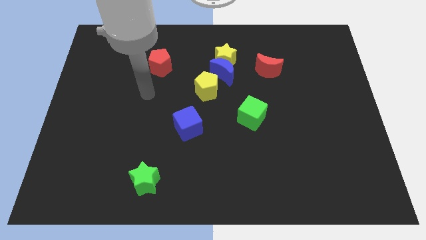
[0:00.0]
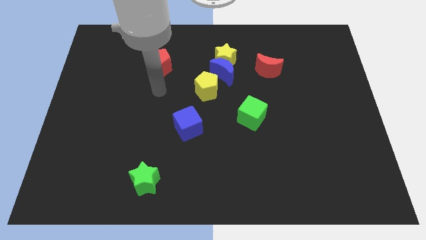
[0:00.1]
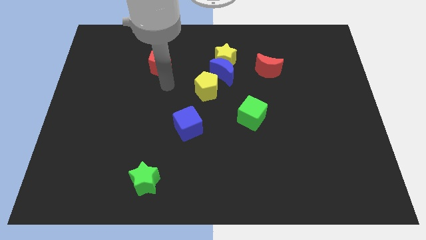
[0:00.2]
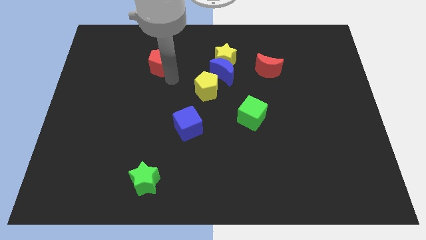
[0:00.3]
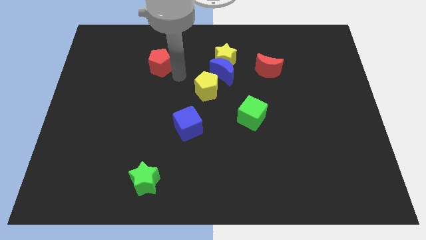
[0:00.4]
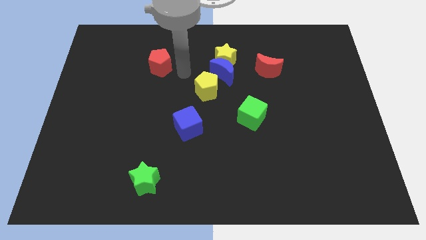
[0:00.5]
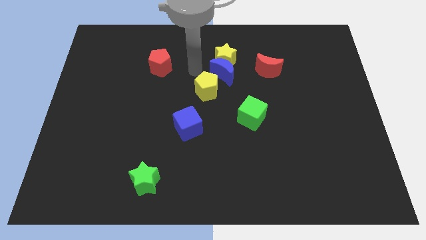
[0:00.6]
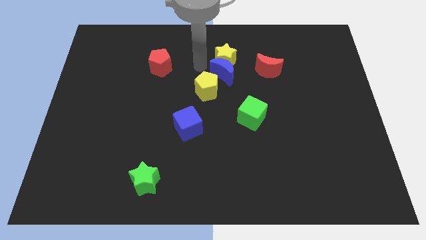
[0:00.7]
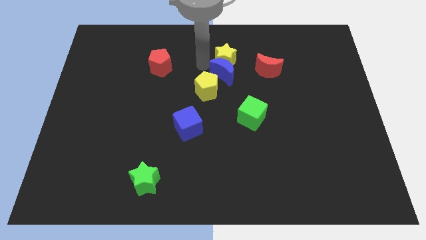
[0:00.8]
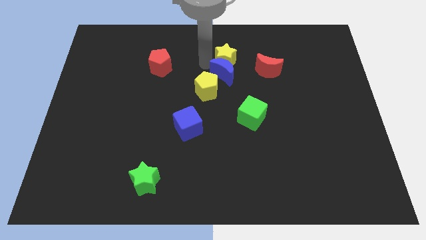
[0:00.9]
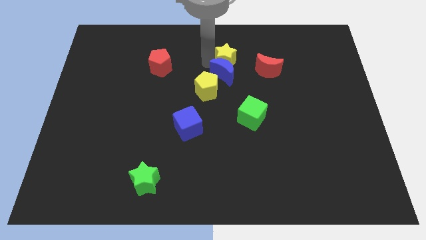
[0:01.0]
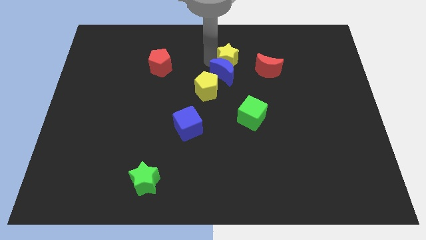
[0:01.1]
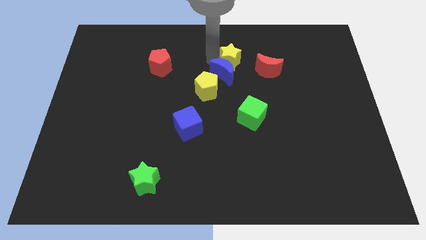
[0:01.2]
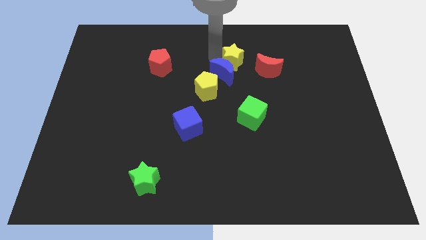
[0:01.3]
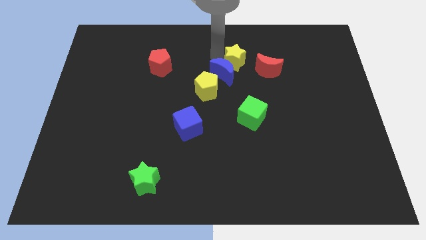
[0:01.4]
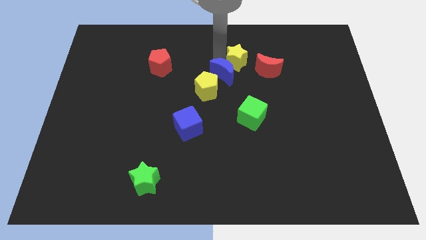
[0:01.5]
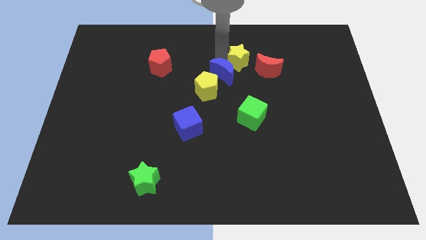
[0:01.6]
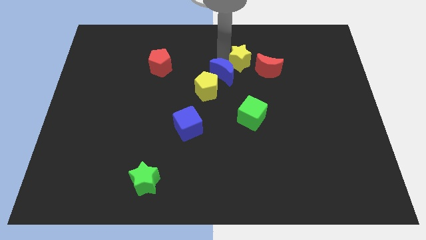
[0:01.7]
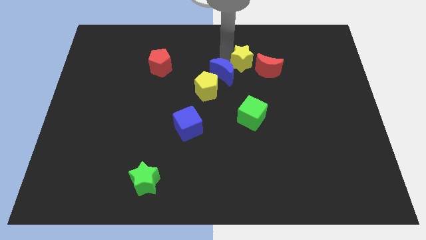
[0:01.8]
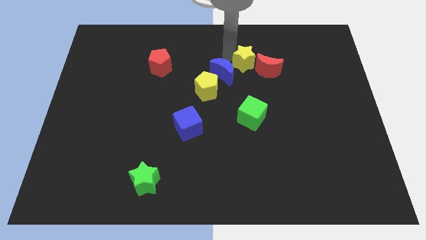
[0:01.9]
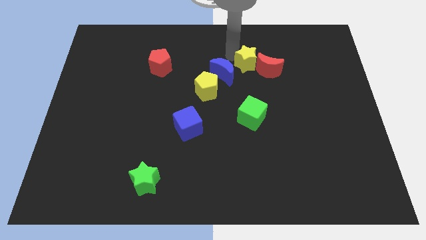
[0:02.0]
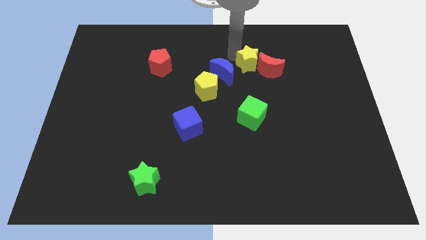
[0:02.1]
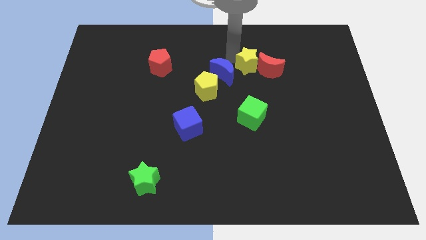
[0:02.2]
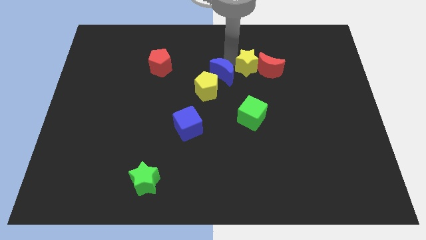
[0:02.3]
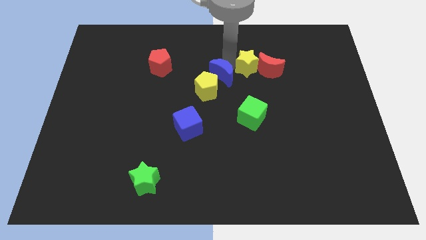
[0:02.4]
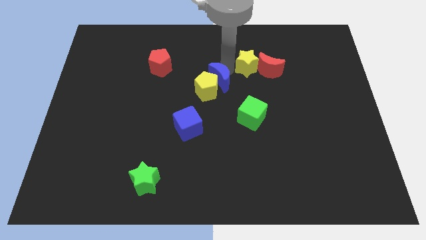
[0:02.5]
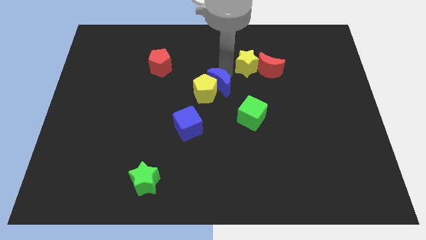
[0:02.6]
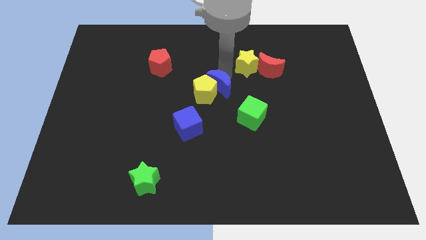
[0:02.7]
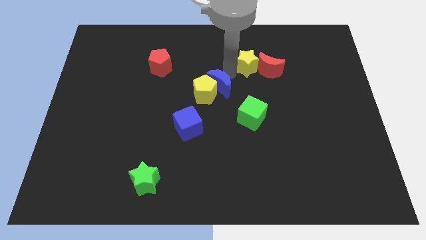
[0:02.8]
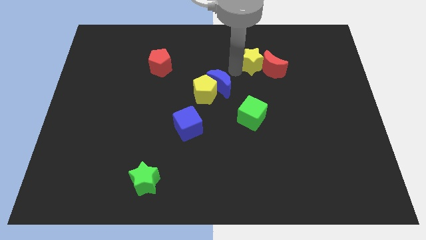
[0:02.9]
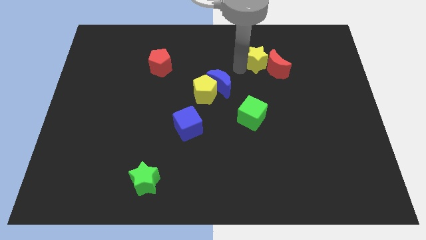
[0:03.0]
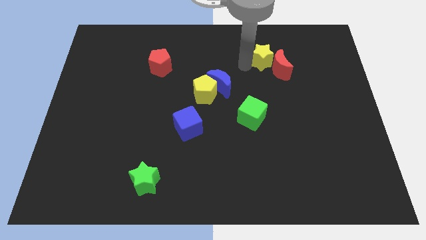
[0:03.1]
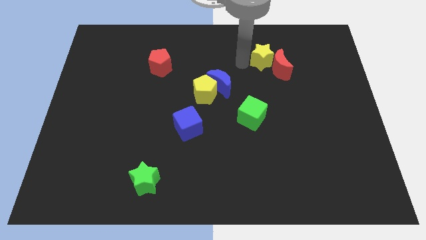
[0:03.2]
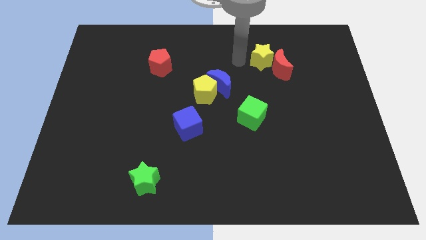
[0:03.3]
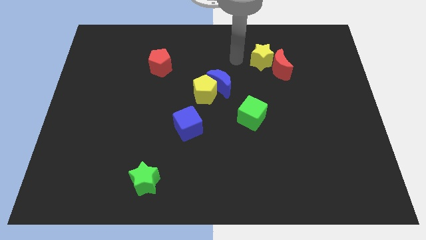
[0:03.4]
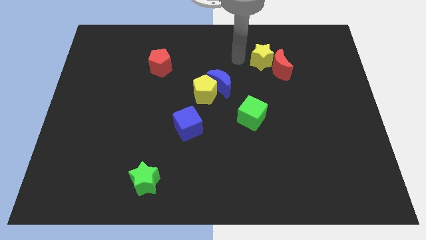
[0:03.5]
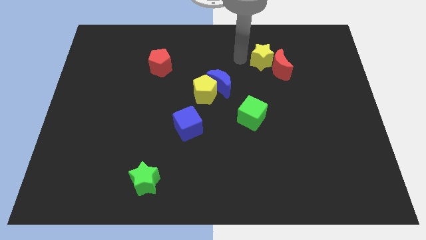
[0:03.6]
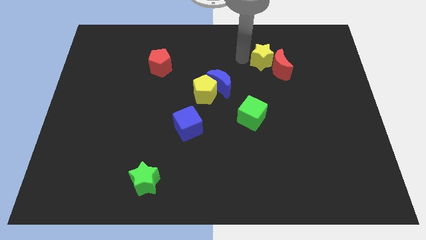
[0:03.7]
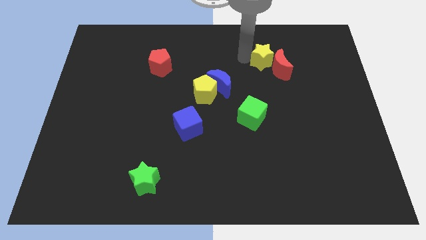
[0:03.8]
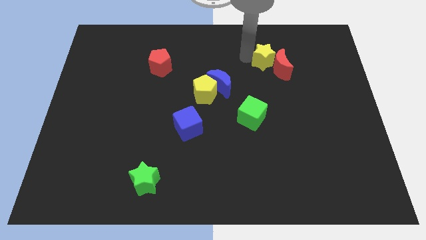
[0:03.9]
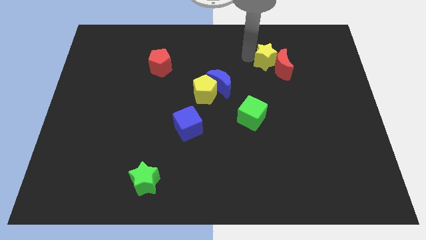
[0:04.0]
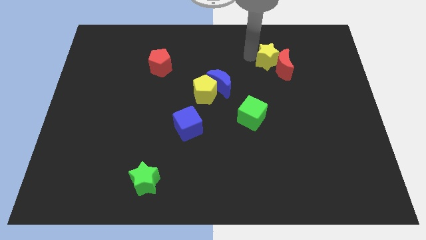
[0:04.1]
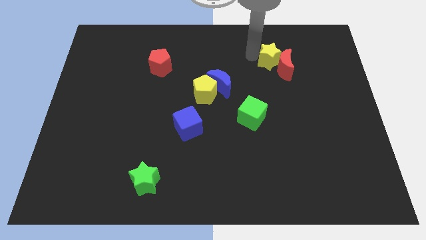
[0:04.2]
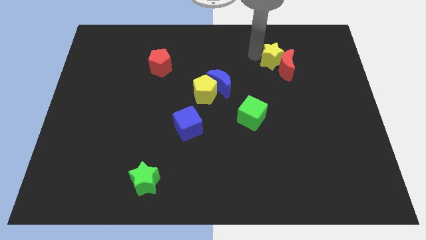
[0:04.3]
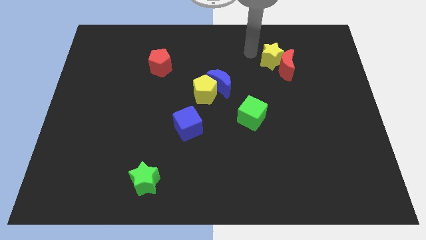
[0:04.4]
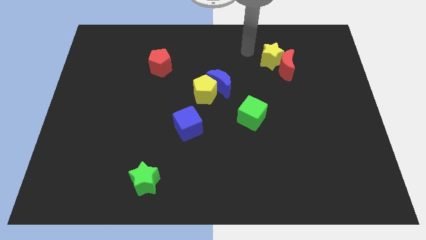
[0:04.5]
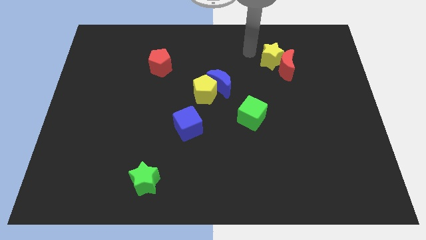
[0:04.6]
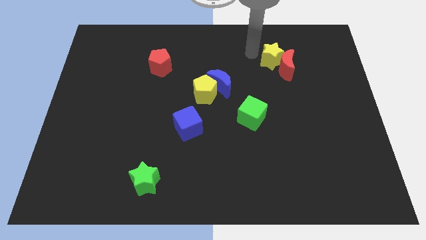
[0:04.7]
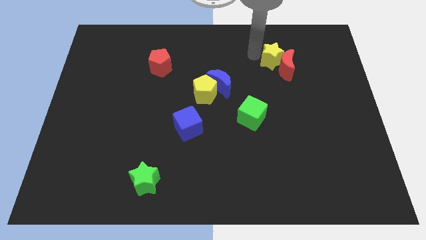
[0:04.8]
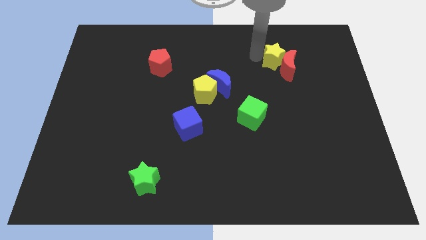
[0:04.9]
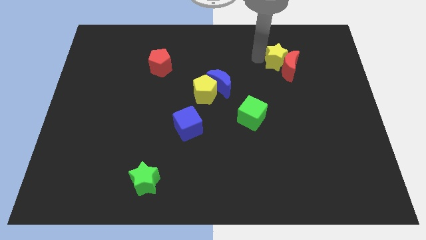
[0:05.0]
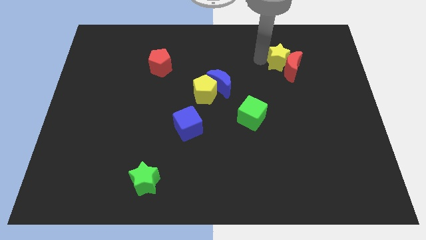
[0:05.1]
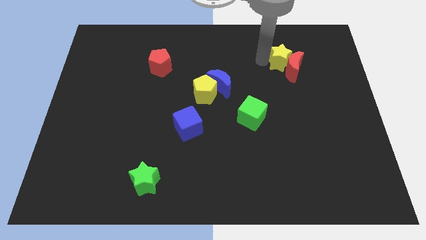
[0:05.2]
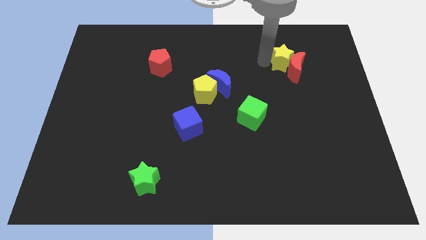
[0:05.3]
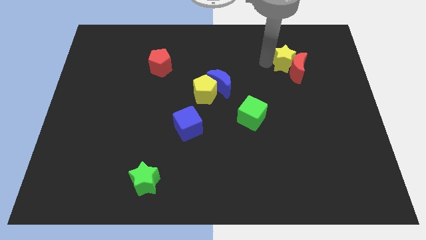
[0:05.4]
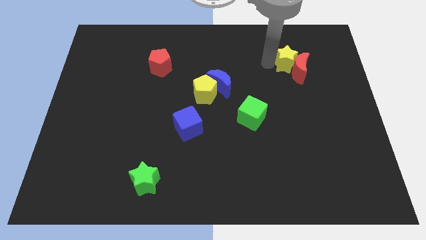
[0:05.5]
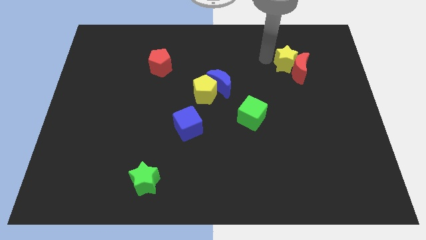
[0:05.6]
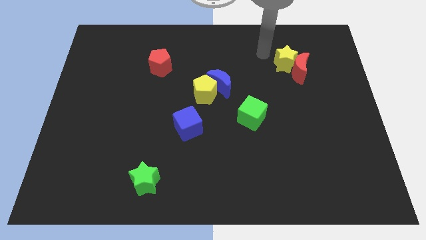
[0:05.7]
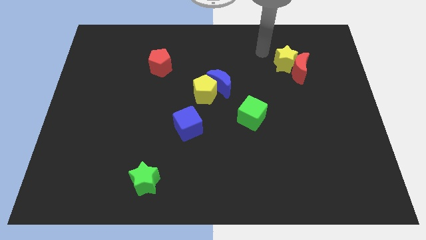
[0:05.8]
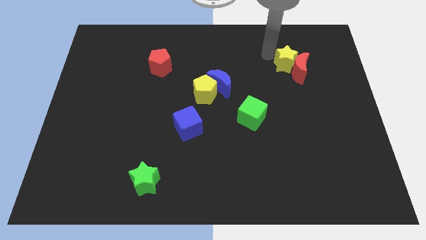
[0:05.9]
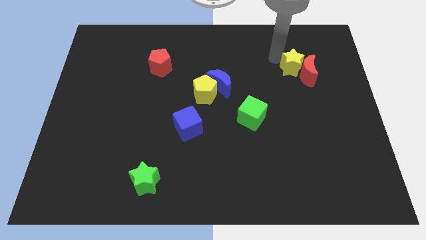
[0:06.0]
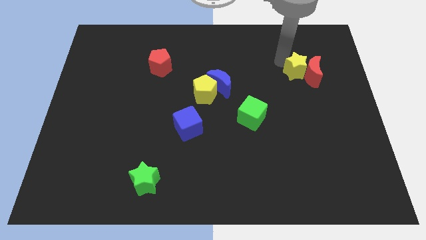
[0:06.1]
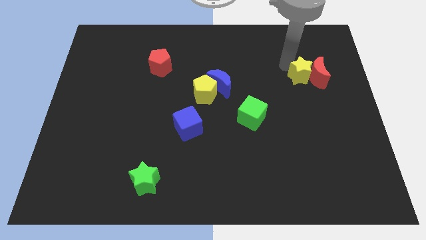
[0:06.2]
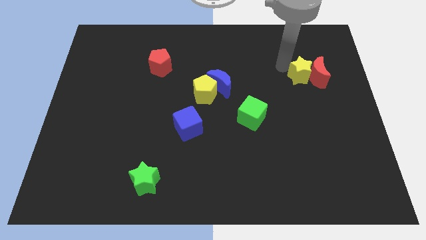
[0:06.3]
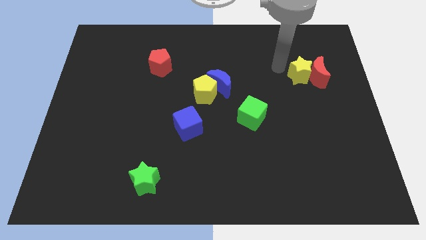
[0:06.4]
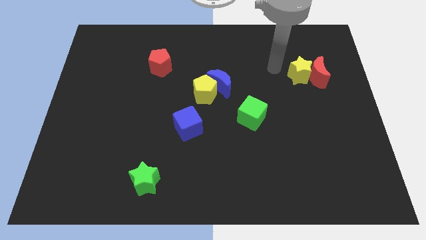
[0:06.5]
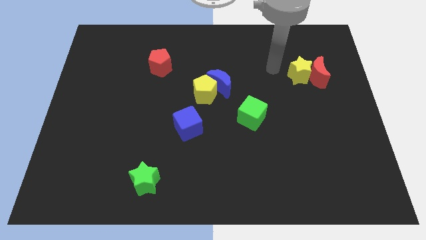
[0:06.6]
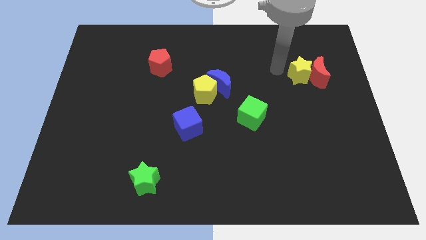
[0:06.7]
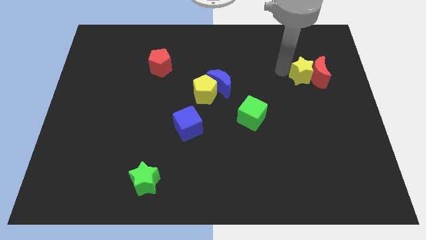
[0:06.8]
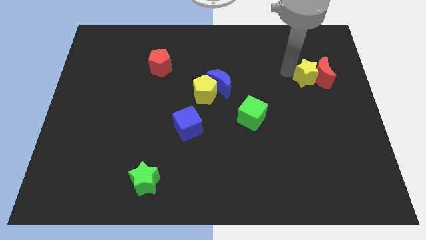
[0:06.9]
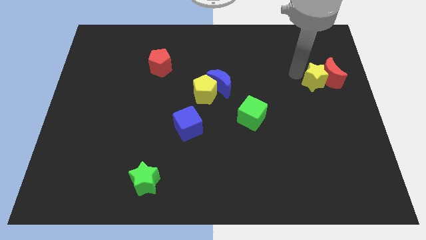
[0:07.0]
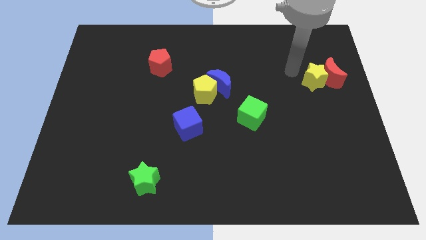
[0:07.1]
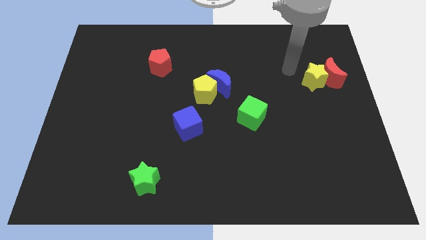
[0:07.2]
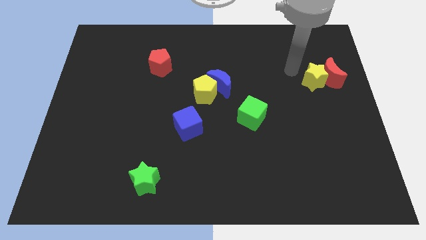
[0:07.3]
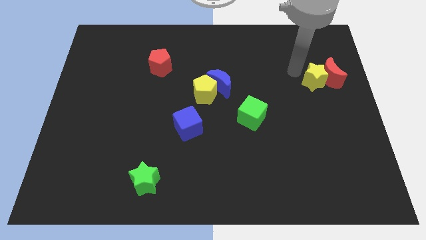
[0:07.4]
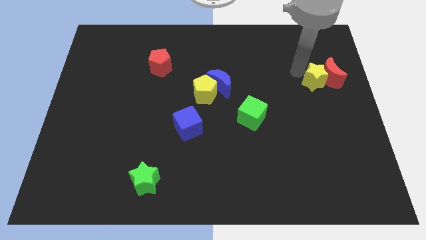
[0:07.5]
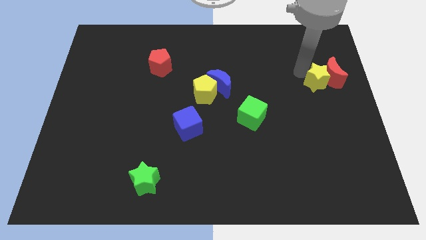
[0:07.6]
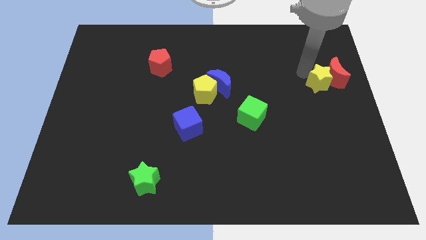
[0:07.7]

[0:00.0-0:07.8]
put the yellow star to the right side of the board
